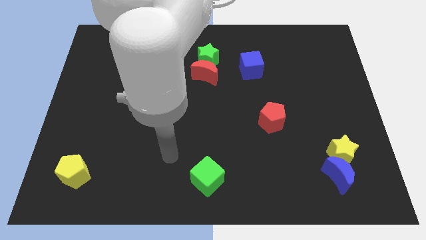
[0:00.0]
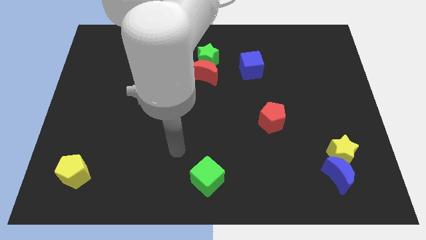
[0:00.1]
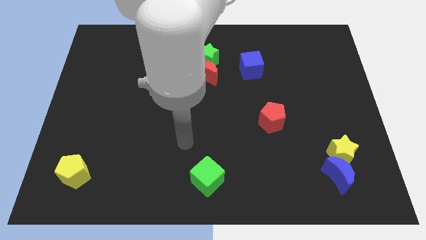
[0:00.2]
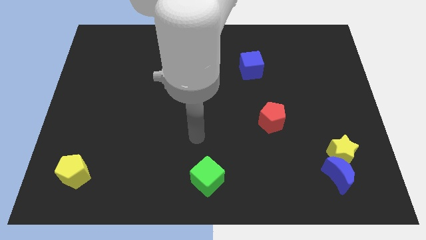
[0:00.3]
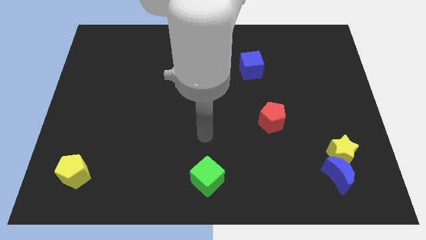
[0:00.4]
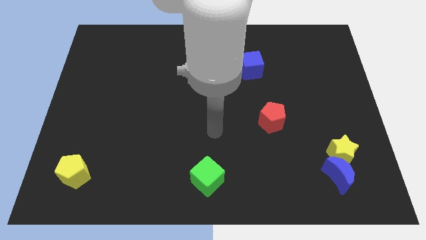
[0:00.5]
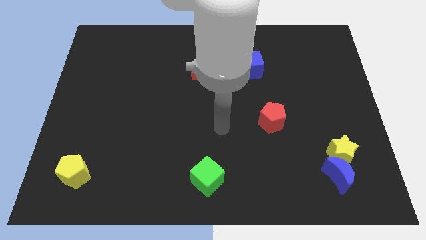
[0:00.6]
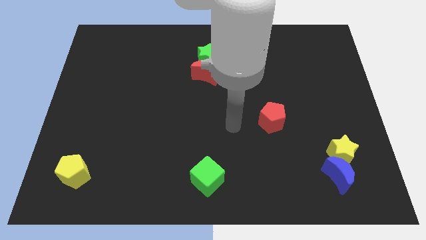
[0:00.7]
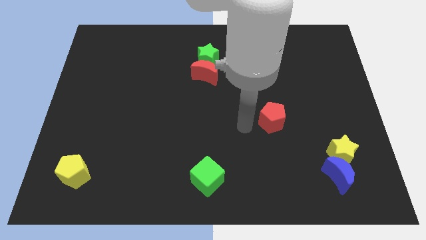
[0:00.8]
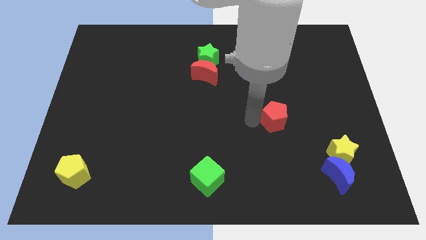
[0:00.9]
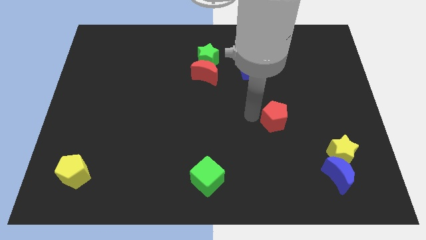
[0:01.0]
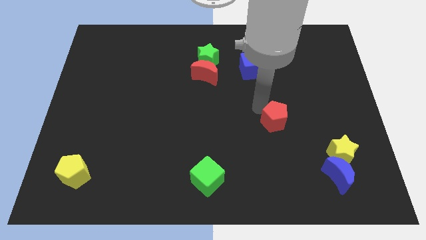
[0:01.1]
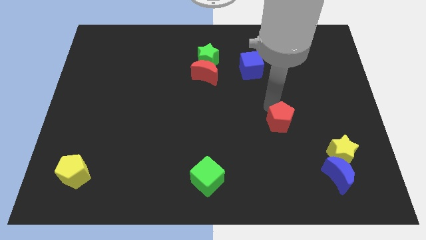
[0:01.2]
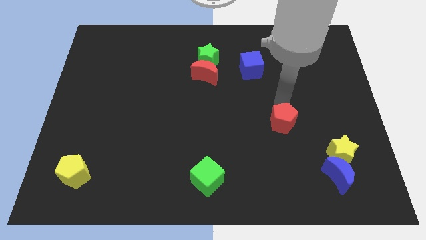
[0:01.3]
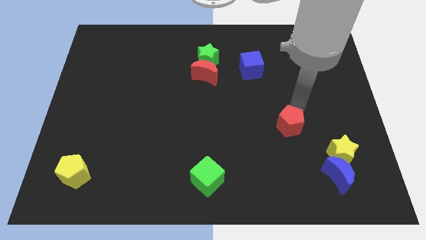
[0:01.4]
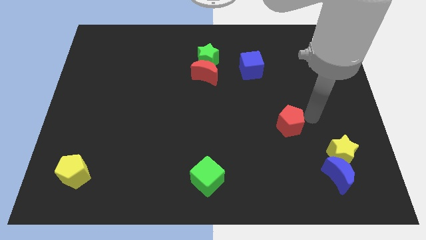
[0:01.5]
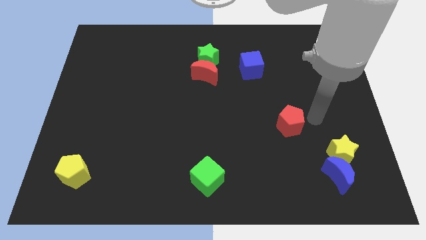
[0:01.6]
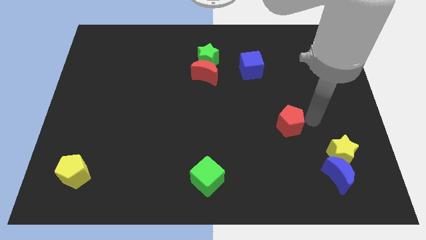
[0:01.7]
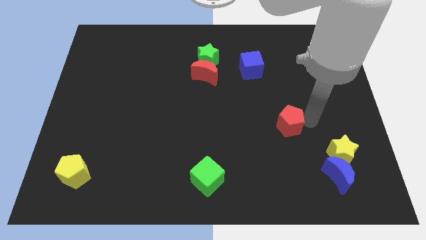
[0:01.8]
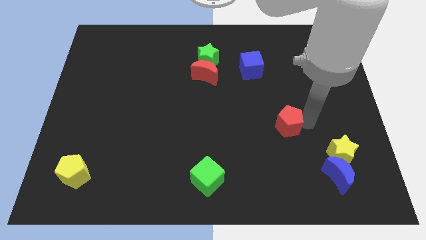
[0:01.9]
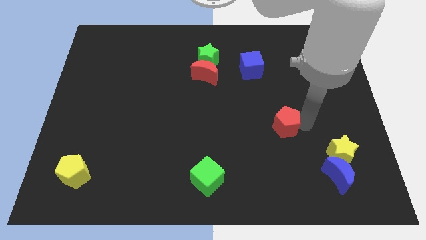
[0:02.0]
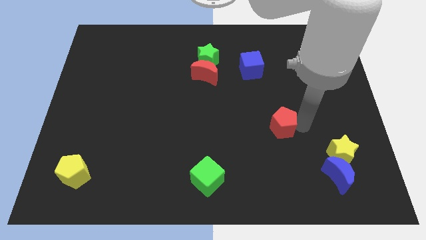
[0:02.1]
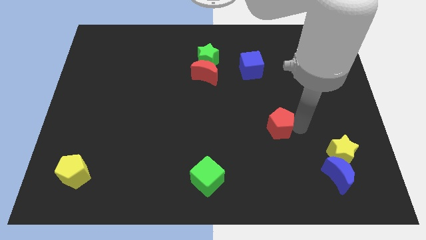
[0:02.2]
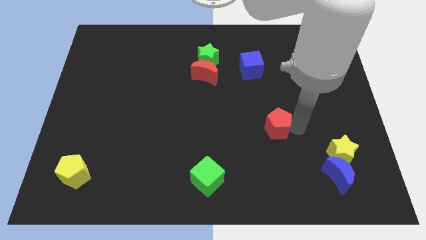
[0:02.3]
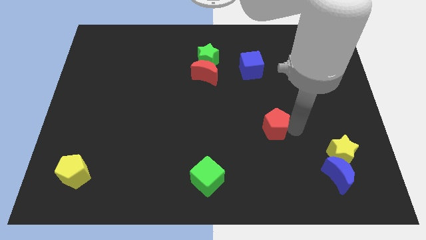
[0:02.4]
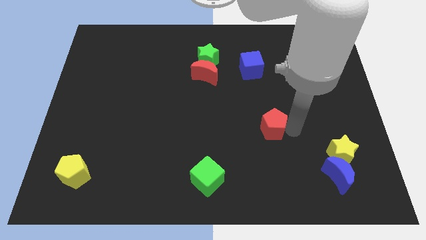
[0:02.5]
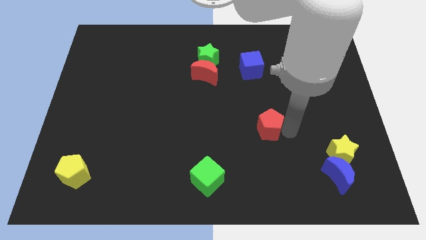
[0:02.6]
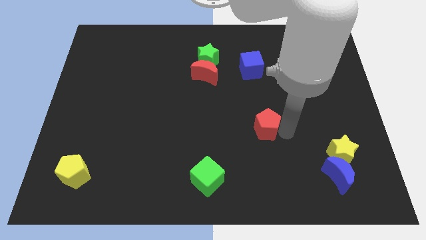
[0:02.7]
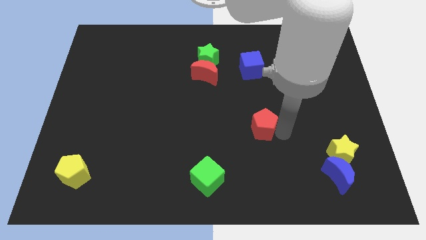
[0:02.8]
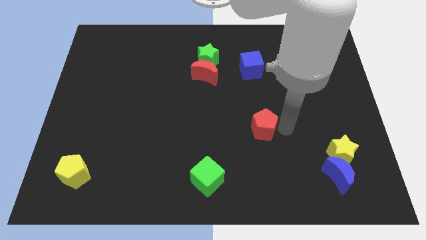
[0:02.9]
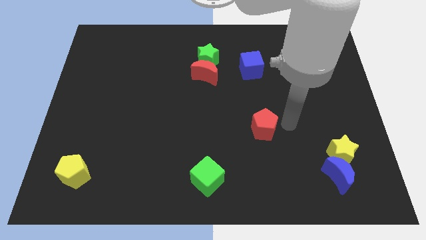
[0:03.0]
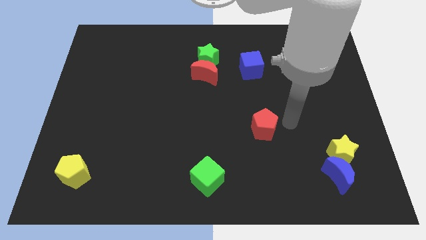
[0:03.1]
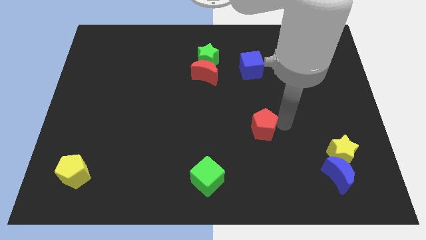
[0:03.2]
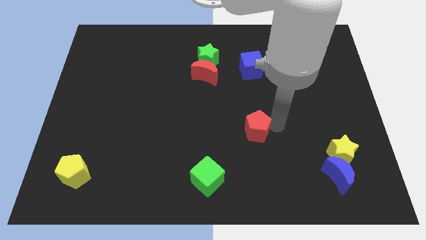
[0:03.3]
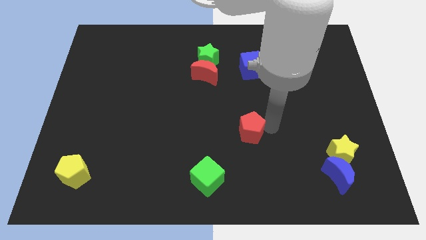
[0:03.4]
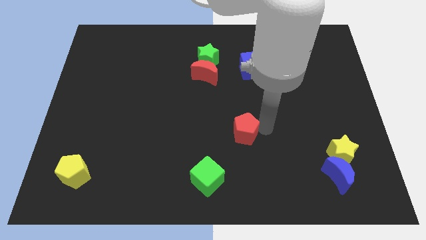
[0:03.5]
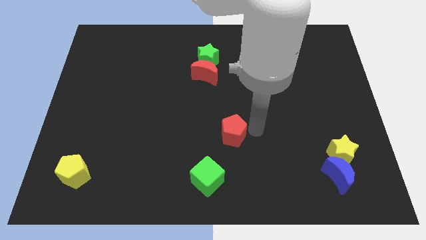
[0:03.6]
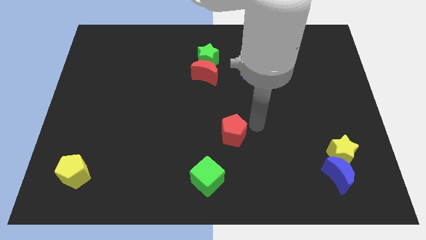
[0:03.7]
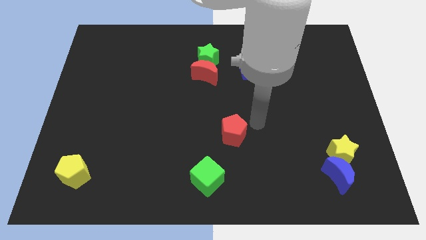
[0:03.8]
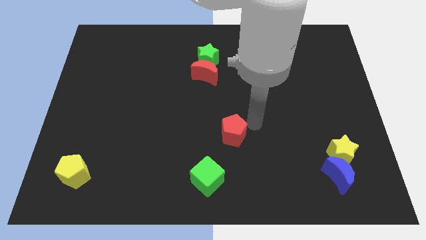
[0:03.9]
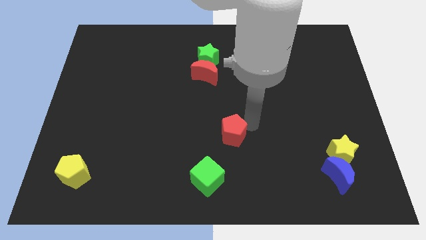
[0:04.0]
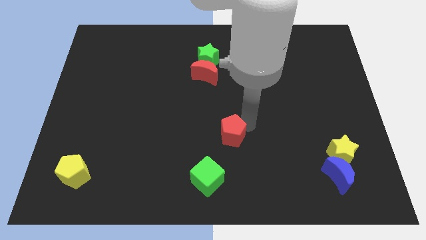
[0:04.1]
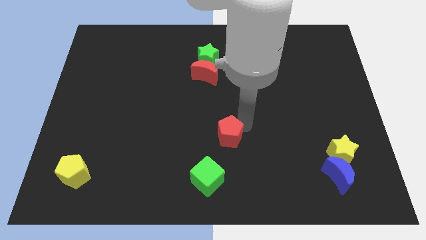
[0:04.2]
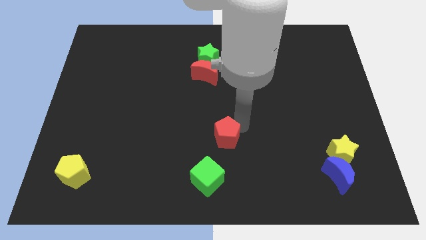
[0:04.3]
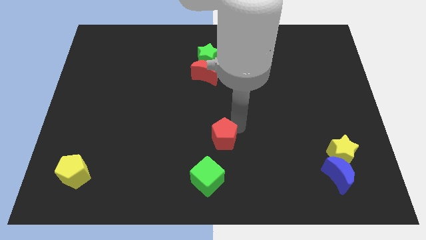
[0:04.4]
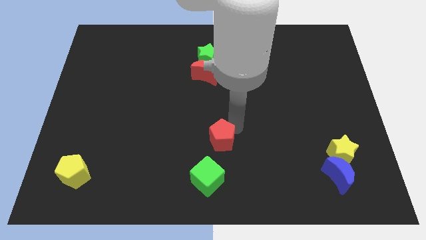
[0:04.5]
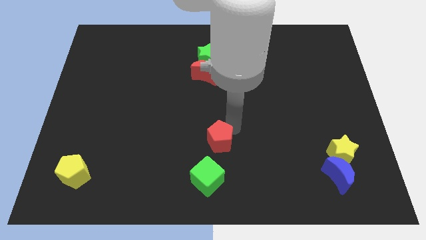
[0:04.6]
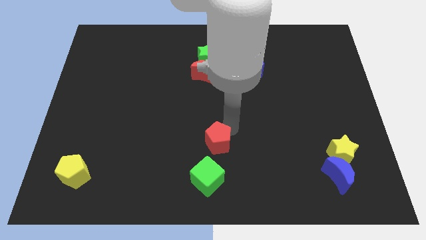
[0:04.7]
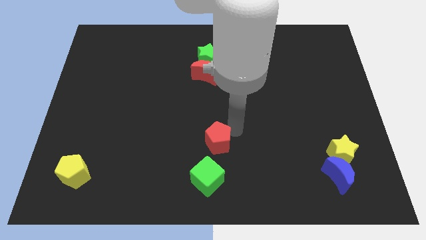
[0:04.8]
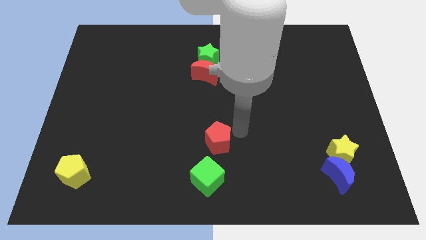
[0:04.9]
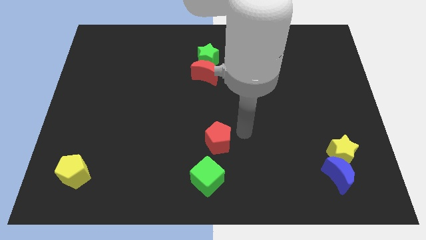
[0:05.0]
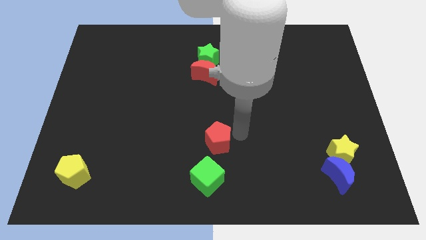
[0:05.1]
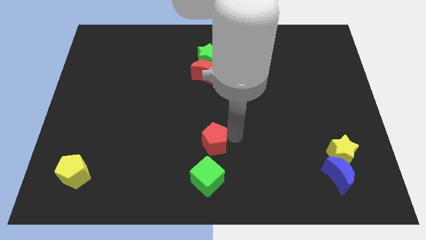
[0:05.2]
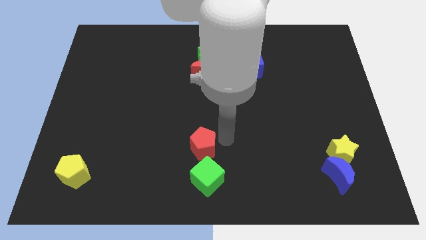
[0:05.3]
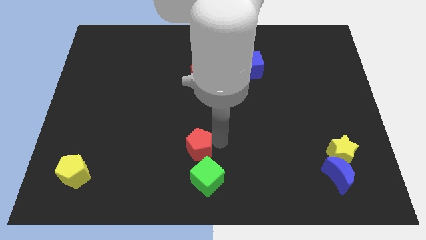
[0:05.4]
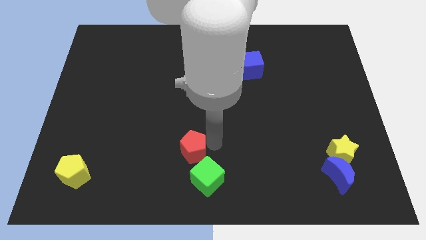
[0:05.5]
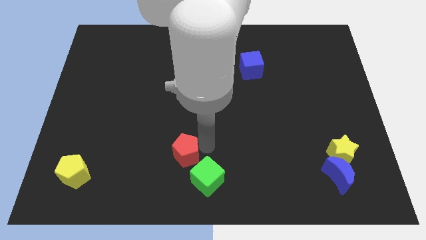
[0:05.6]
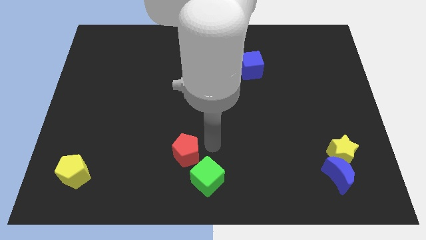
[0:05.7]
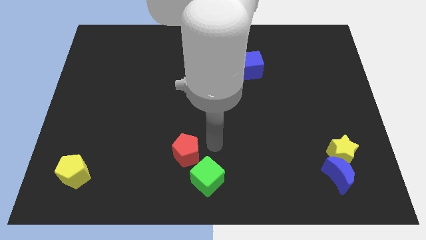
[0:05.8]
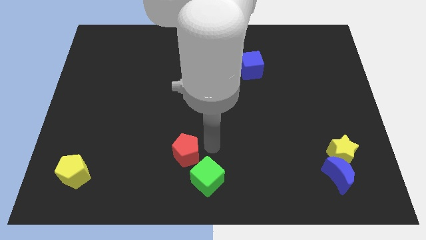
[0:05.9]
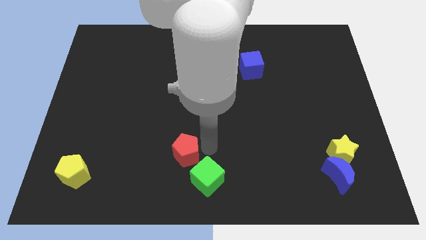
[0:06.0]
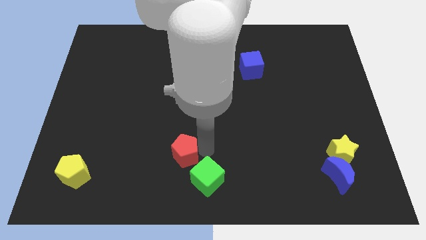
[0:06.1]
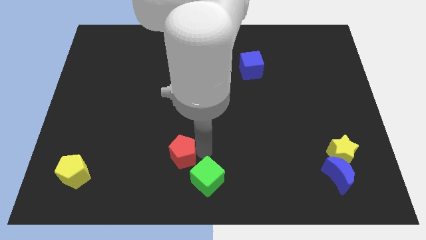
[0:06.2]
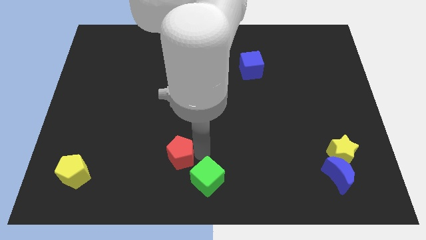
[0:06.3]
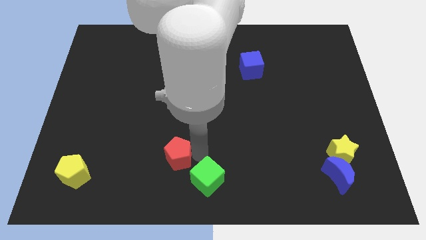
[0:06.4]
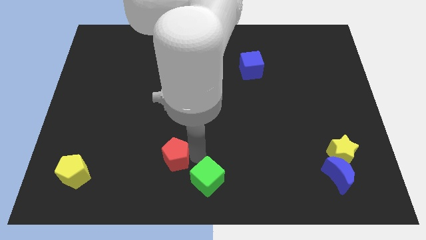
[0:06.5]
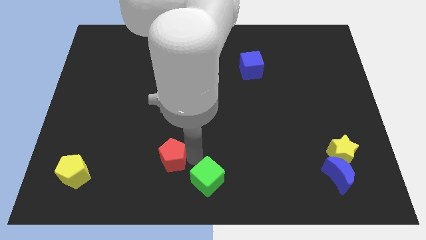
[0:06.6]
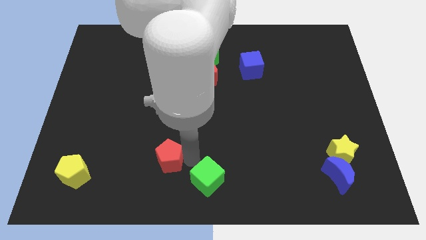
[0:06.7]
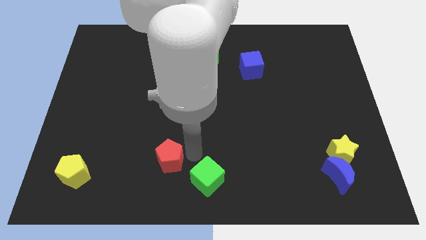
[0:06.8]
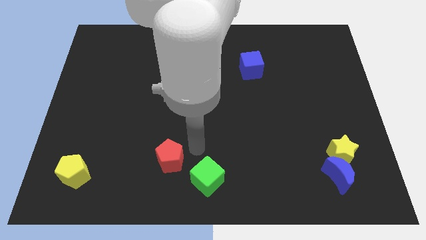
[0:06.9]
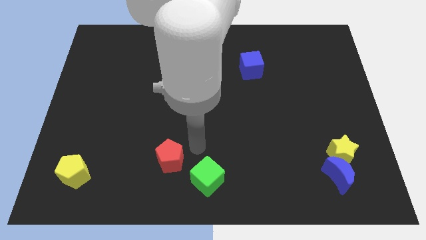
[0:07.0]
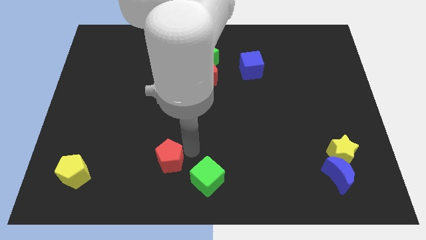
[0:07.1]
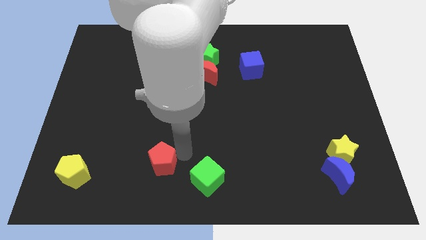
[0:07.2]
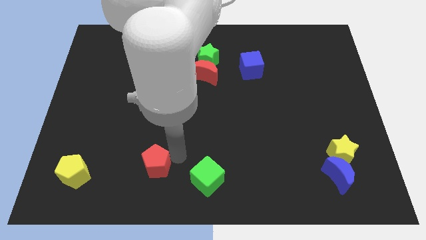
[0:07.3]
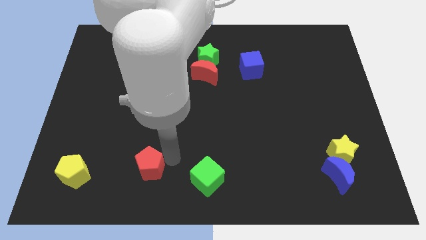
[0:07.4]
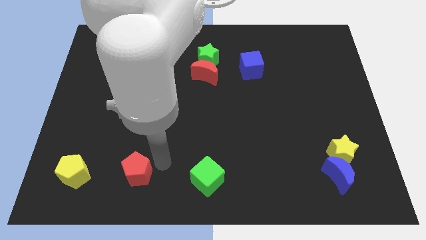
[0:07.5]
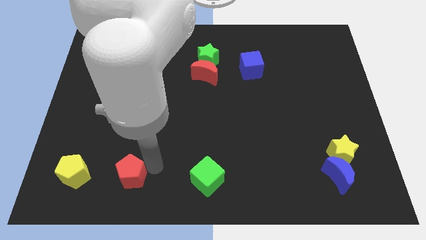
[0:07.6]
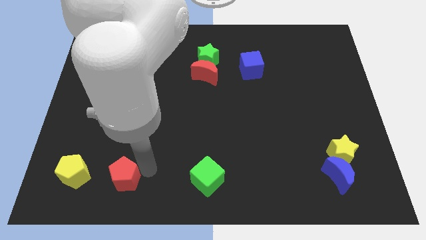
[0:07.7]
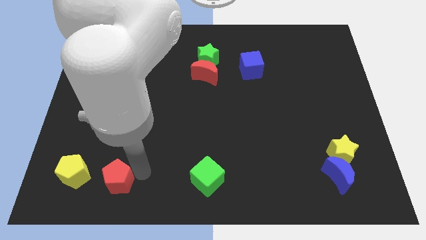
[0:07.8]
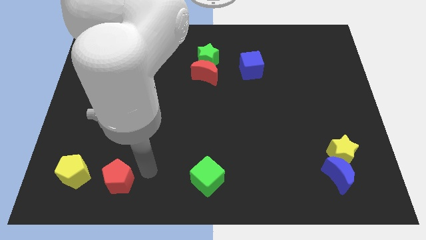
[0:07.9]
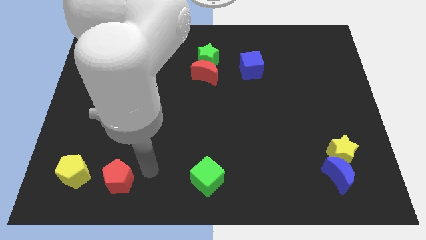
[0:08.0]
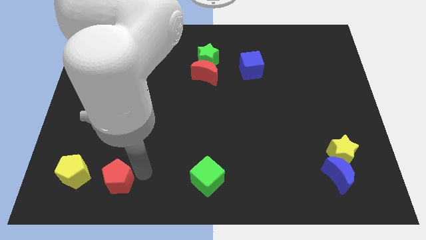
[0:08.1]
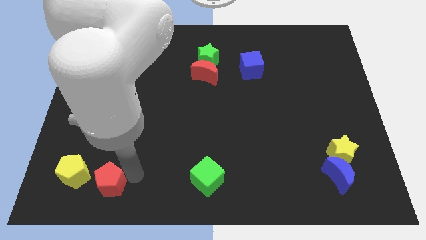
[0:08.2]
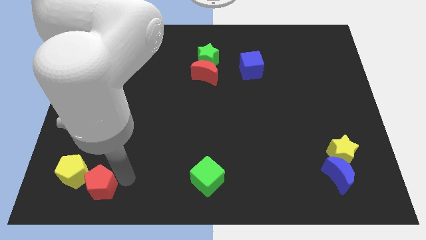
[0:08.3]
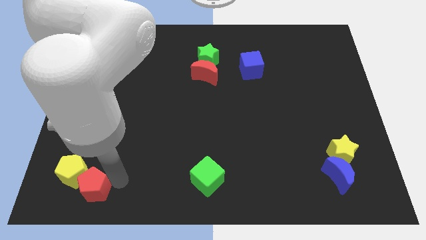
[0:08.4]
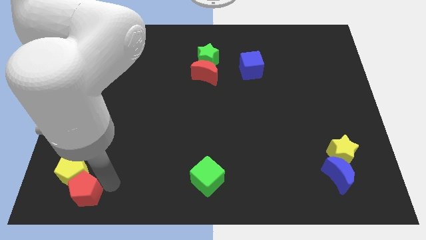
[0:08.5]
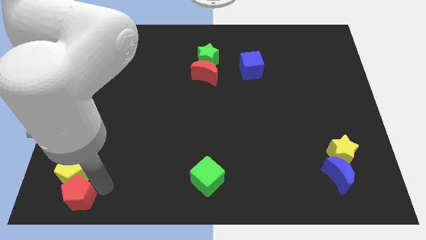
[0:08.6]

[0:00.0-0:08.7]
push the red pentagon to the bottom left
